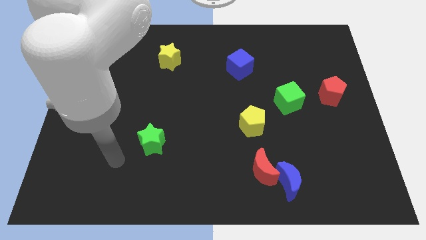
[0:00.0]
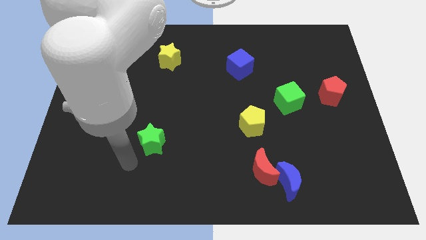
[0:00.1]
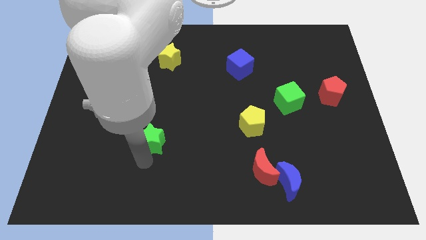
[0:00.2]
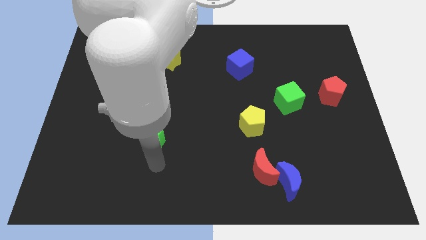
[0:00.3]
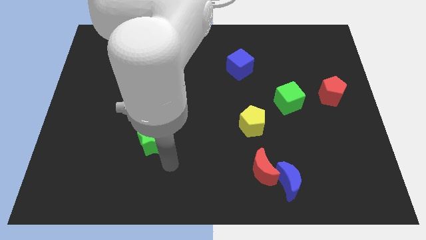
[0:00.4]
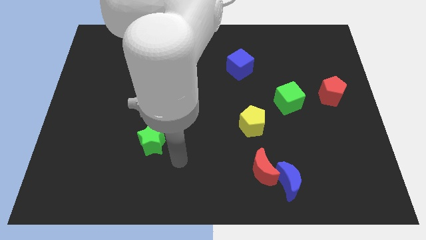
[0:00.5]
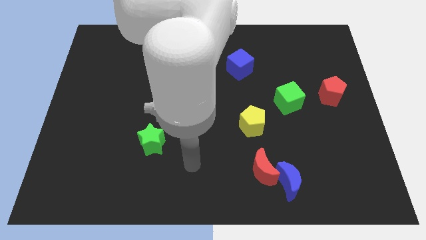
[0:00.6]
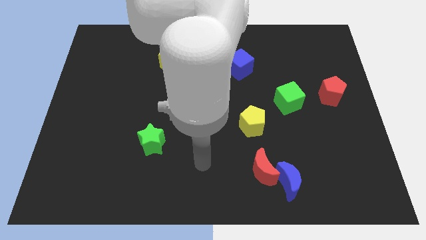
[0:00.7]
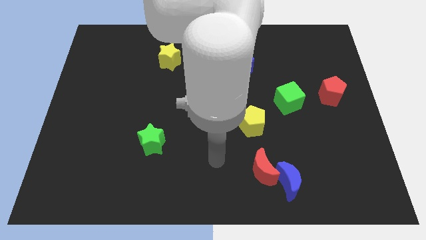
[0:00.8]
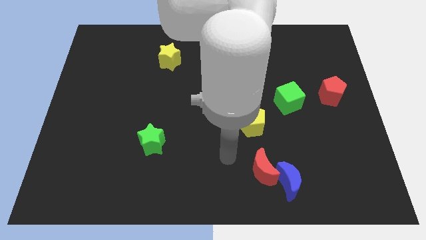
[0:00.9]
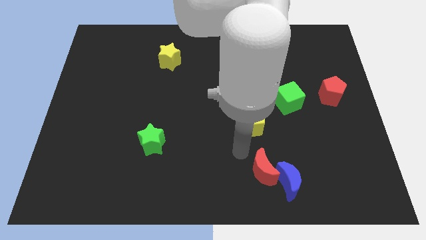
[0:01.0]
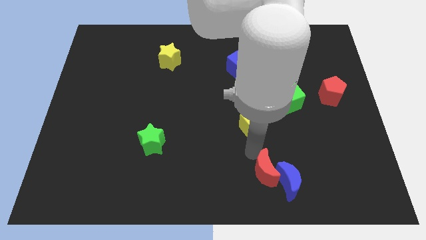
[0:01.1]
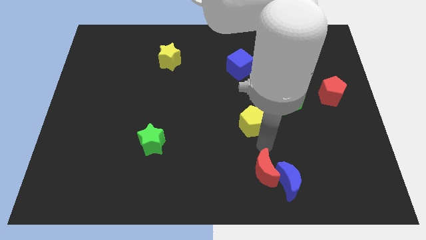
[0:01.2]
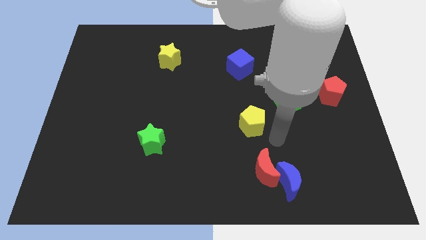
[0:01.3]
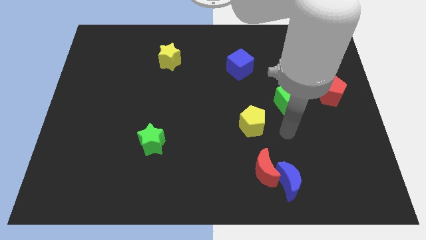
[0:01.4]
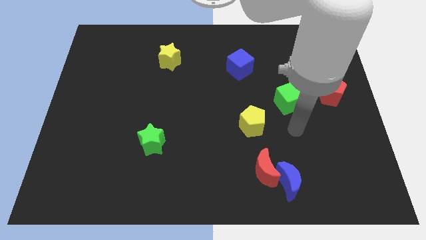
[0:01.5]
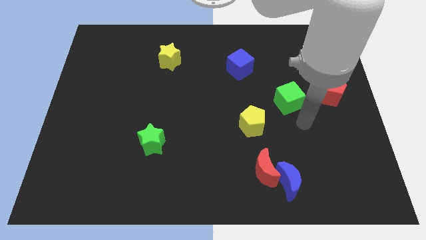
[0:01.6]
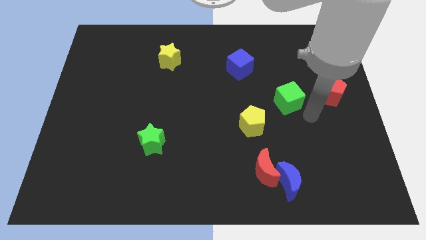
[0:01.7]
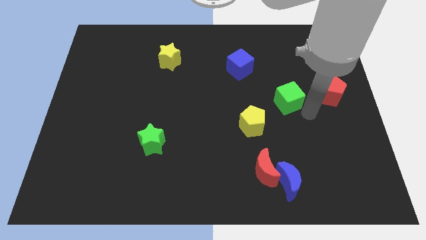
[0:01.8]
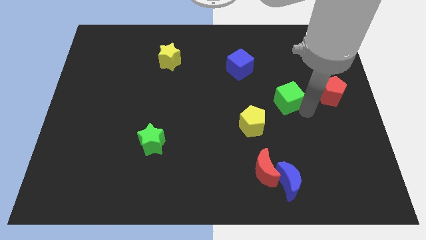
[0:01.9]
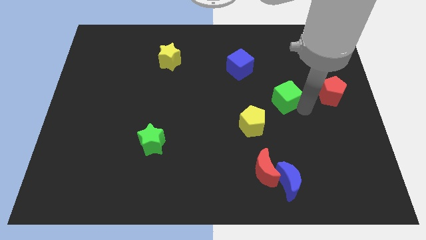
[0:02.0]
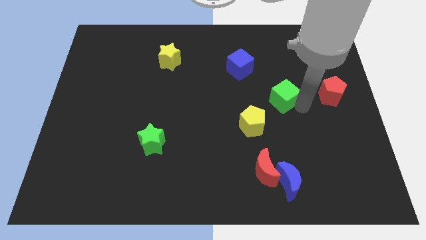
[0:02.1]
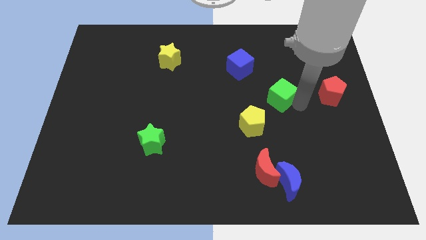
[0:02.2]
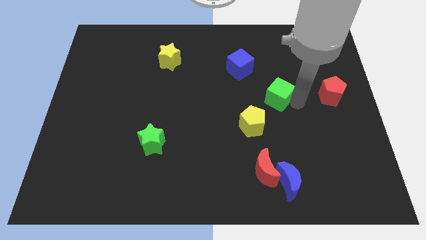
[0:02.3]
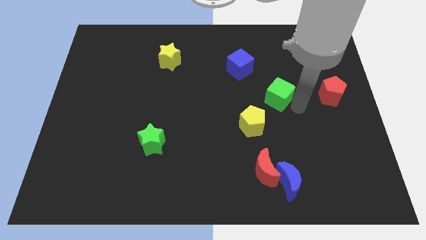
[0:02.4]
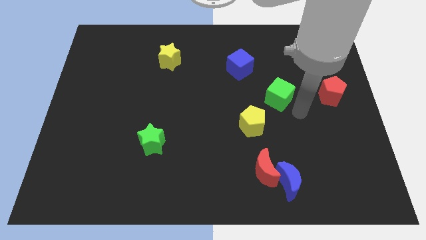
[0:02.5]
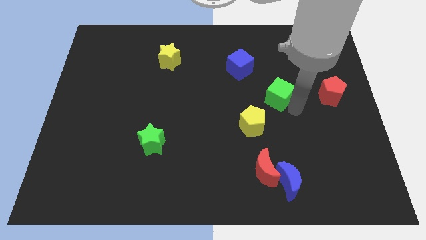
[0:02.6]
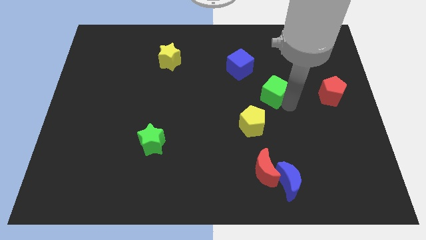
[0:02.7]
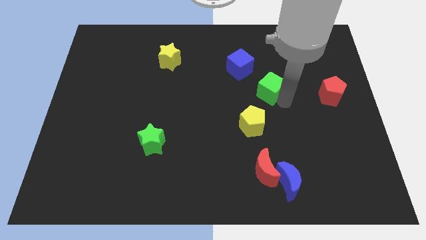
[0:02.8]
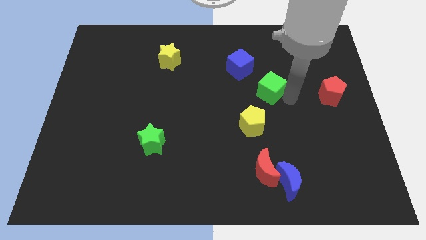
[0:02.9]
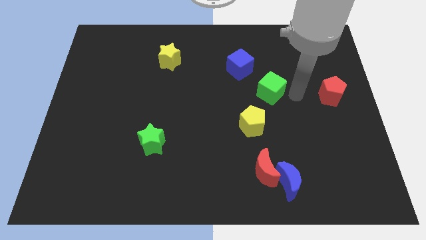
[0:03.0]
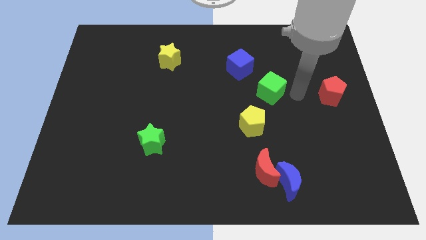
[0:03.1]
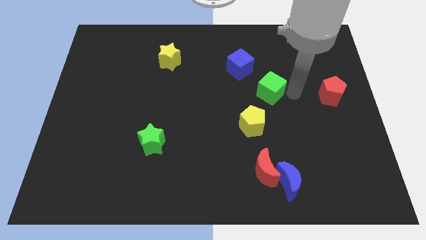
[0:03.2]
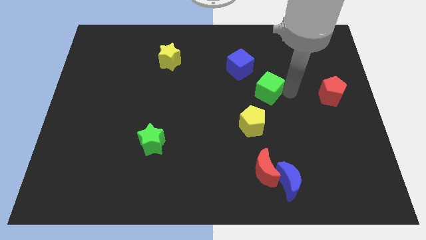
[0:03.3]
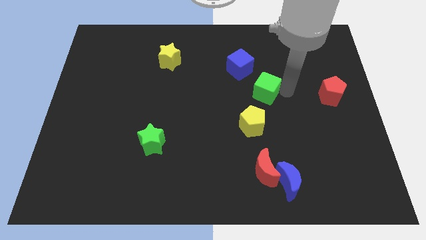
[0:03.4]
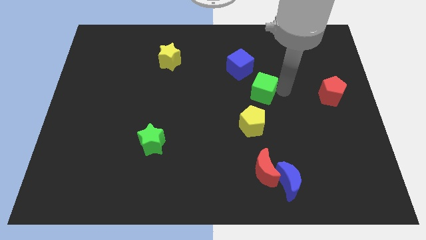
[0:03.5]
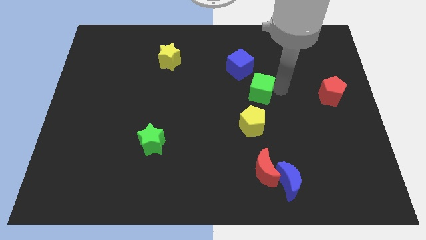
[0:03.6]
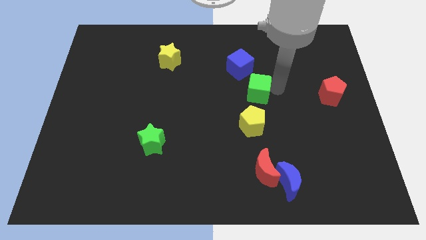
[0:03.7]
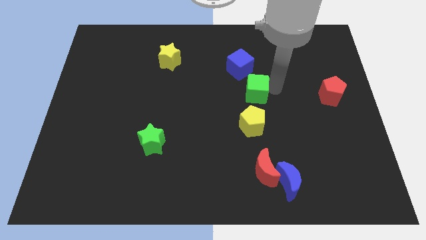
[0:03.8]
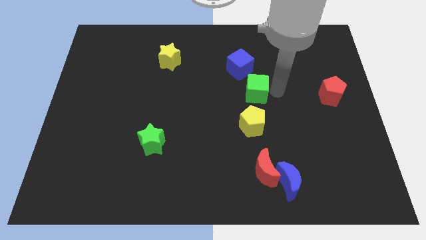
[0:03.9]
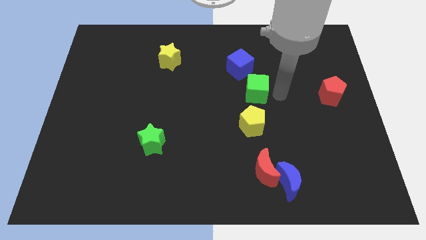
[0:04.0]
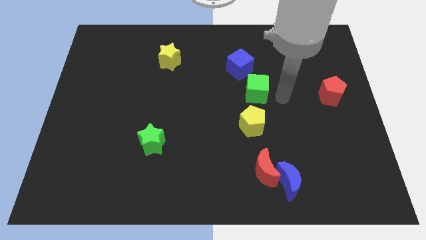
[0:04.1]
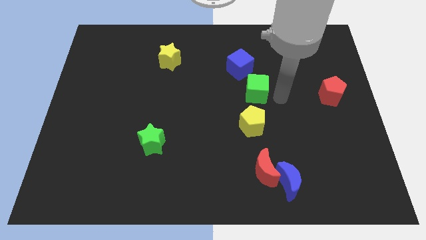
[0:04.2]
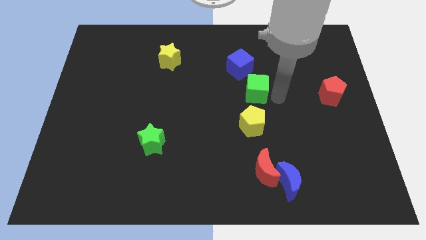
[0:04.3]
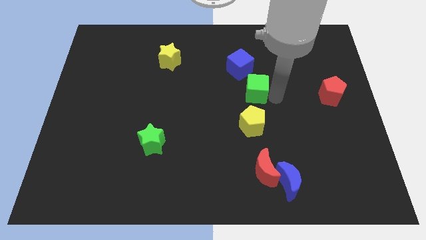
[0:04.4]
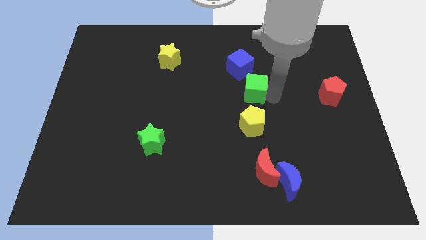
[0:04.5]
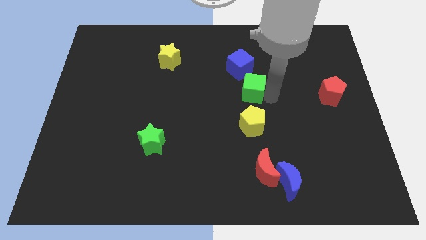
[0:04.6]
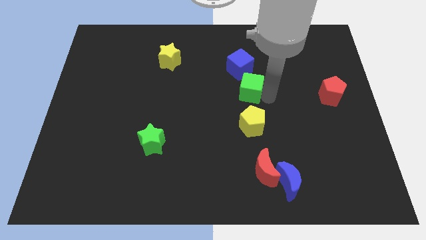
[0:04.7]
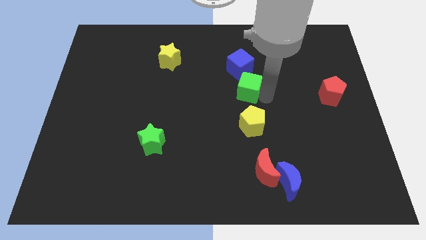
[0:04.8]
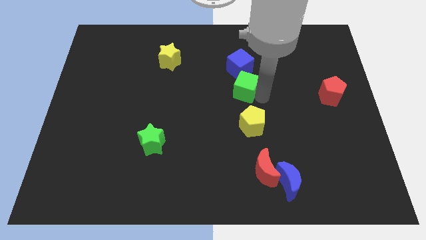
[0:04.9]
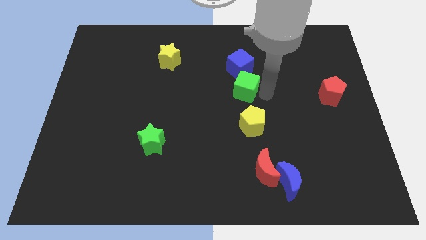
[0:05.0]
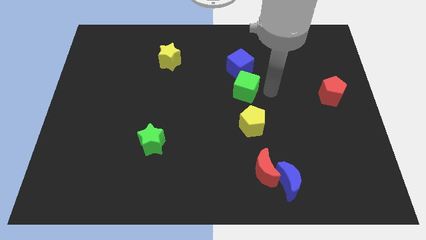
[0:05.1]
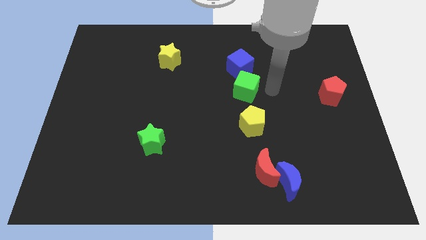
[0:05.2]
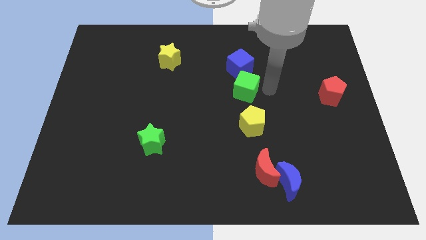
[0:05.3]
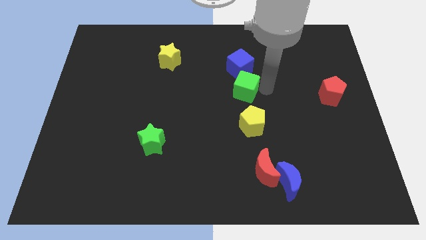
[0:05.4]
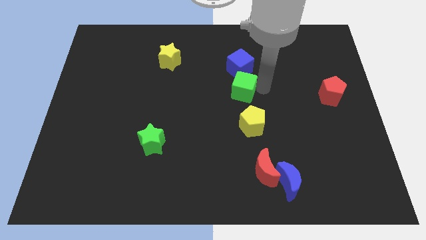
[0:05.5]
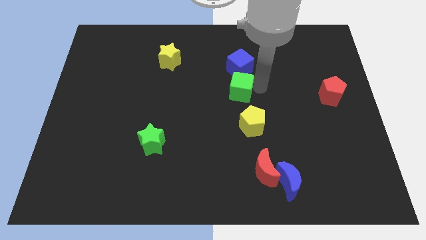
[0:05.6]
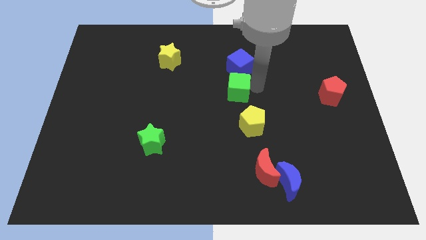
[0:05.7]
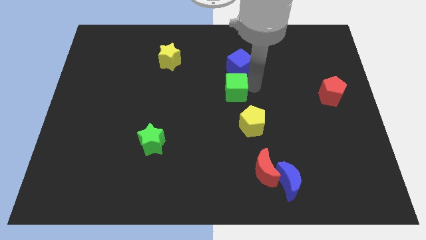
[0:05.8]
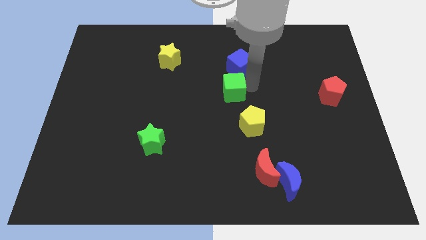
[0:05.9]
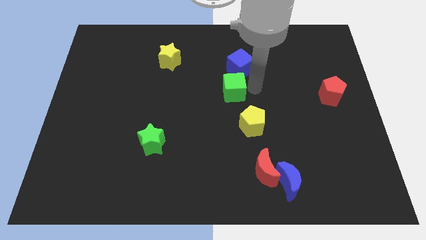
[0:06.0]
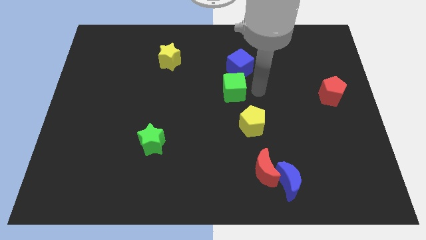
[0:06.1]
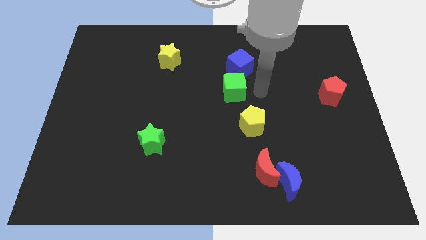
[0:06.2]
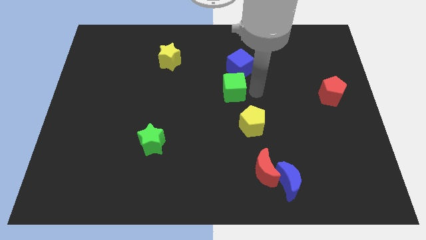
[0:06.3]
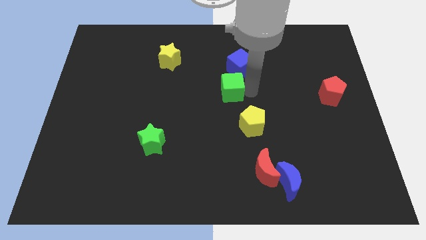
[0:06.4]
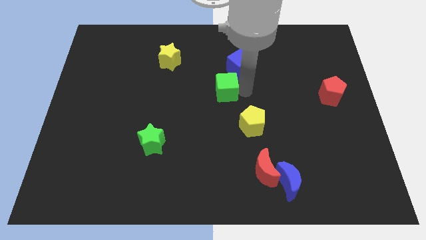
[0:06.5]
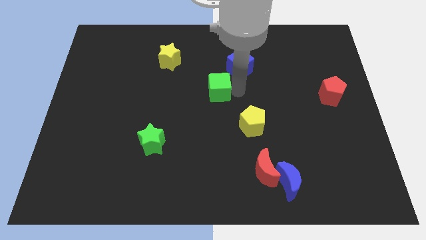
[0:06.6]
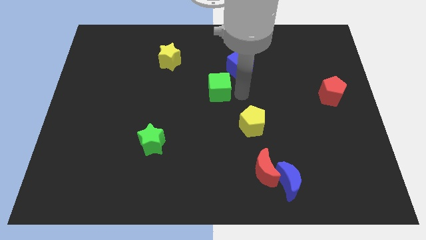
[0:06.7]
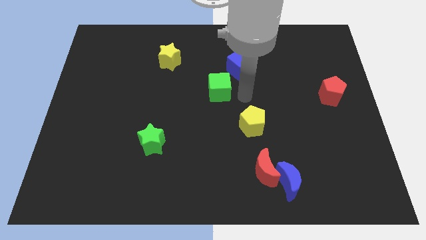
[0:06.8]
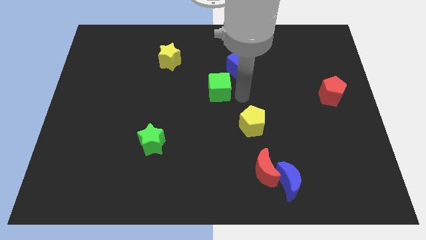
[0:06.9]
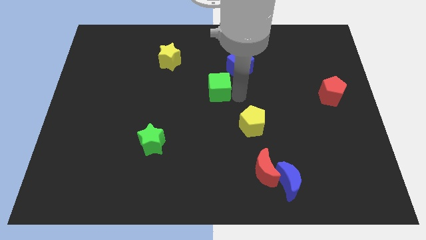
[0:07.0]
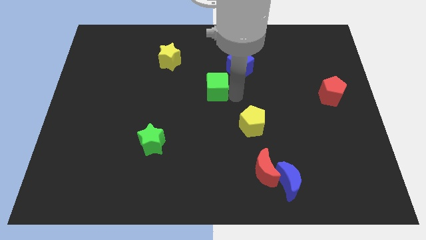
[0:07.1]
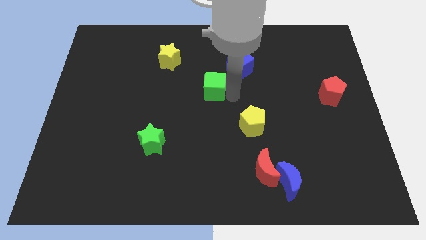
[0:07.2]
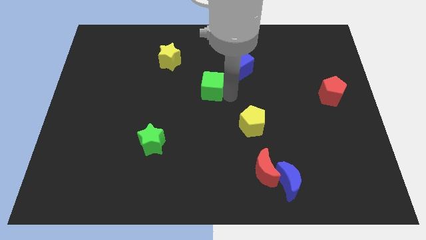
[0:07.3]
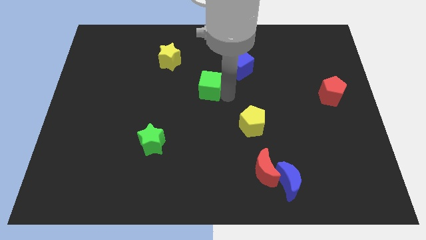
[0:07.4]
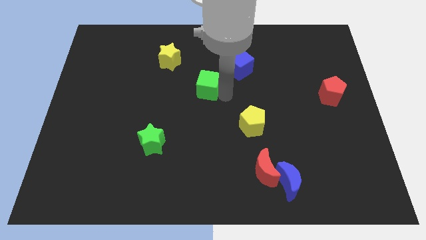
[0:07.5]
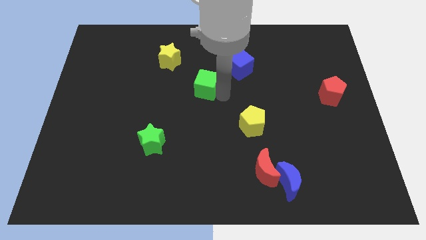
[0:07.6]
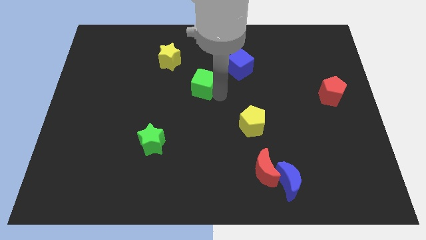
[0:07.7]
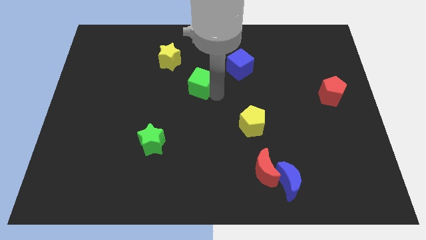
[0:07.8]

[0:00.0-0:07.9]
push the green cube to the bottom right of the yellow star
